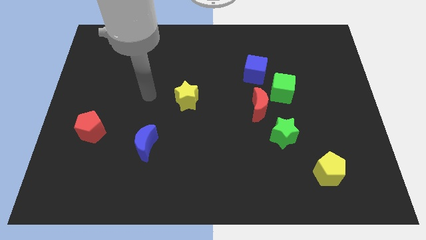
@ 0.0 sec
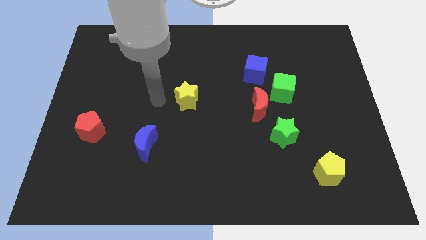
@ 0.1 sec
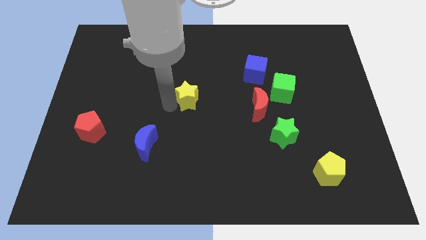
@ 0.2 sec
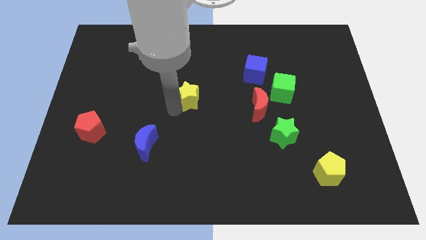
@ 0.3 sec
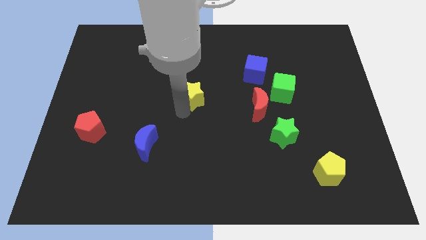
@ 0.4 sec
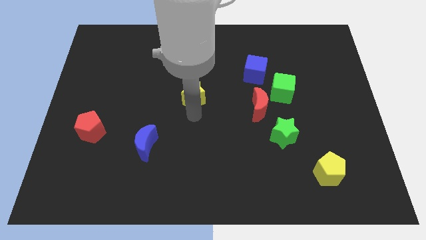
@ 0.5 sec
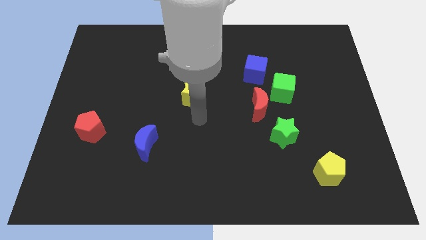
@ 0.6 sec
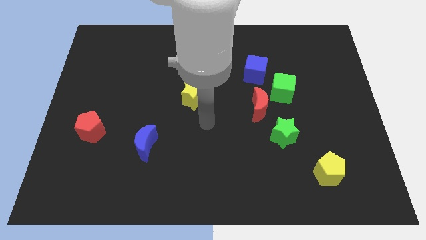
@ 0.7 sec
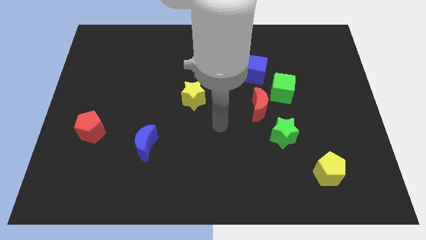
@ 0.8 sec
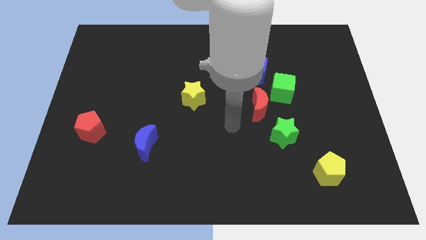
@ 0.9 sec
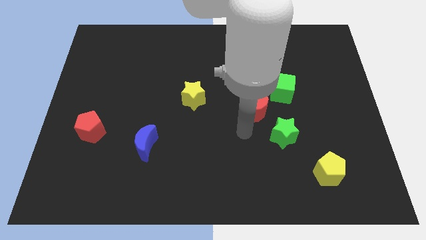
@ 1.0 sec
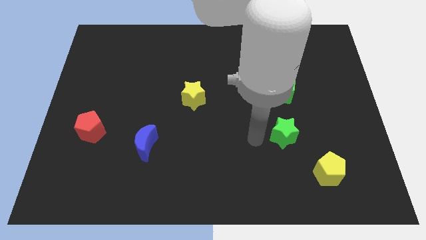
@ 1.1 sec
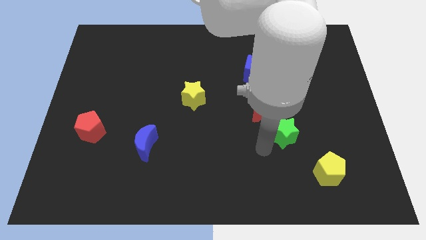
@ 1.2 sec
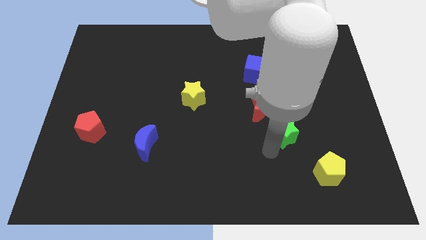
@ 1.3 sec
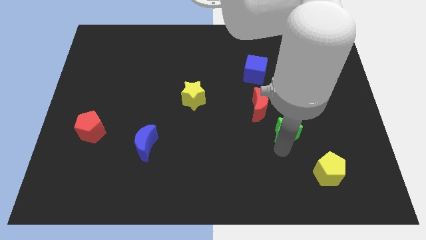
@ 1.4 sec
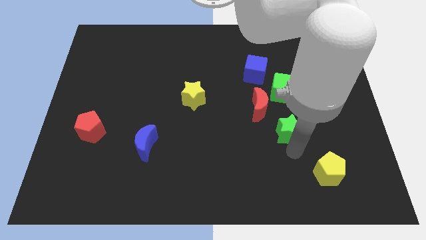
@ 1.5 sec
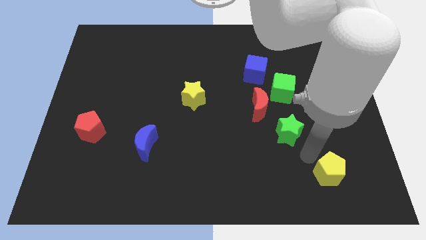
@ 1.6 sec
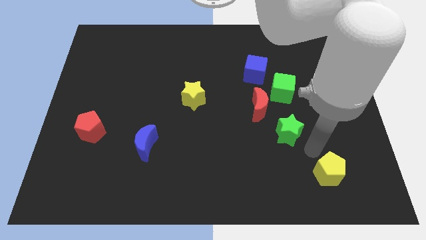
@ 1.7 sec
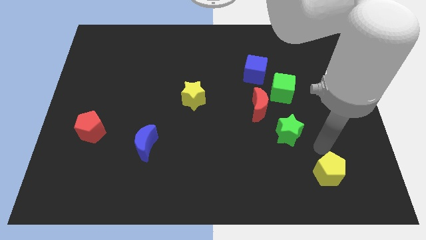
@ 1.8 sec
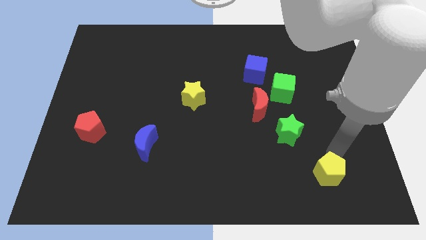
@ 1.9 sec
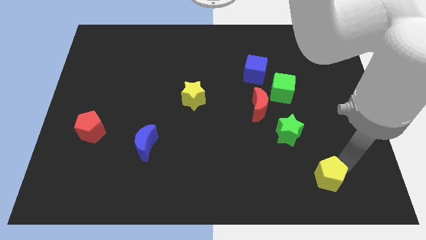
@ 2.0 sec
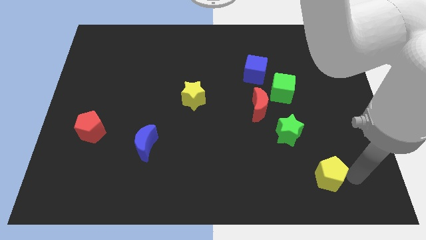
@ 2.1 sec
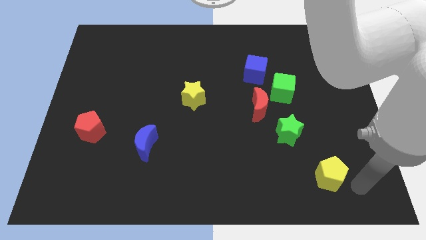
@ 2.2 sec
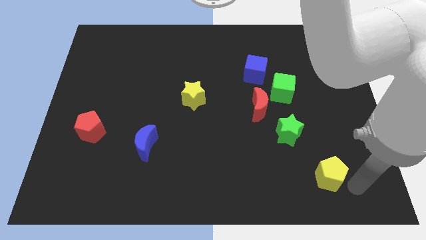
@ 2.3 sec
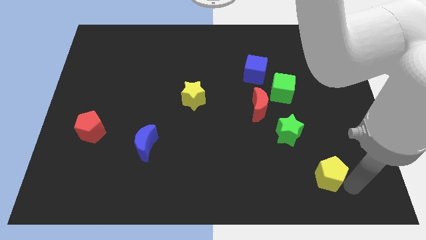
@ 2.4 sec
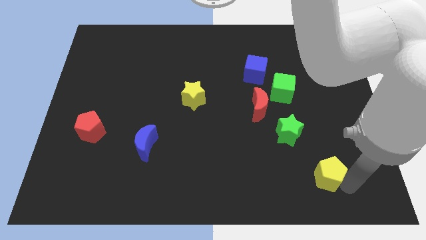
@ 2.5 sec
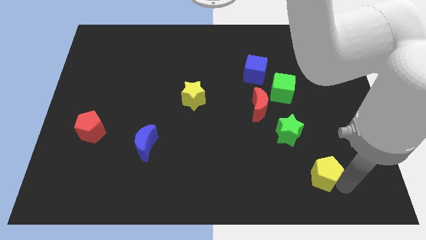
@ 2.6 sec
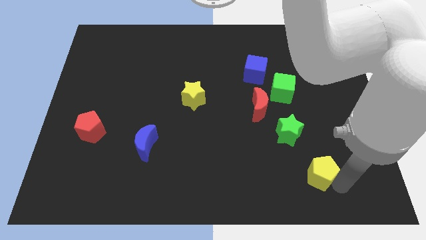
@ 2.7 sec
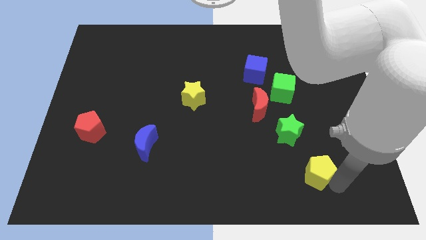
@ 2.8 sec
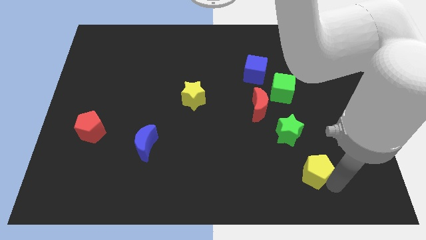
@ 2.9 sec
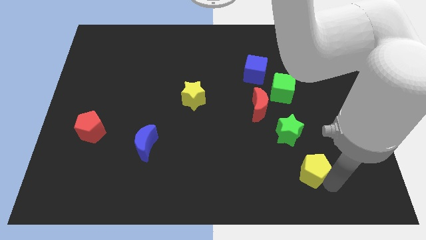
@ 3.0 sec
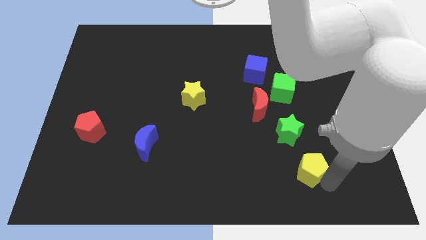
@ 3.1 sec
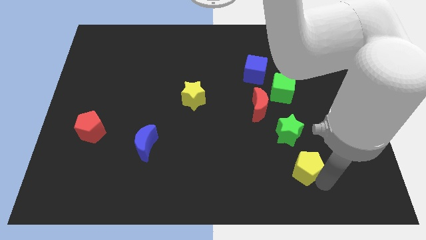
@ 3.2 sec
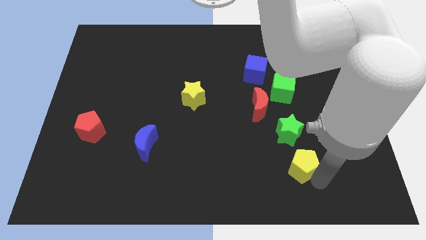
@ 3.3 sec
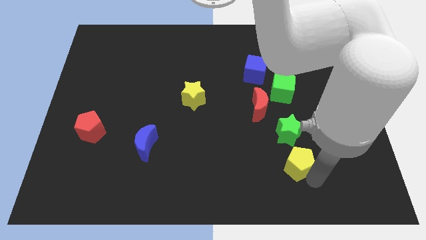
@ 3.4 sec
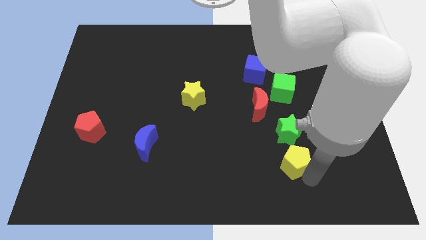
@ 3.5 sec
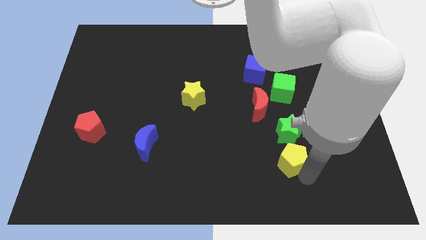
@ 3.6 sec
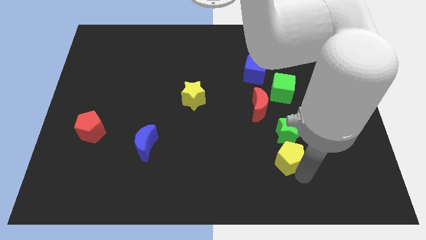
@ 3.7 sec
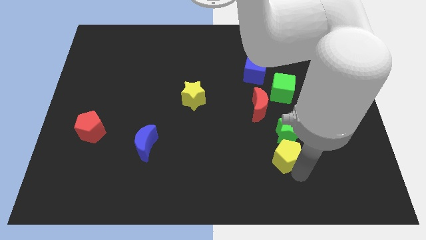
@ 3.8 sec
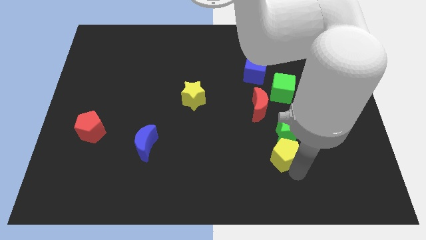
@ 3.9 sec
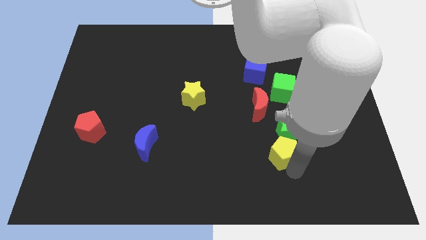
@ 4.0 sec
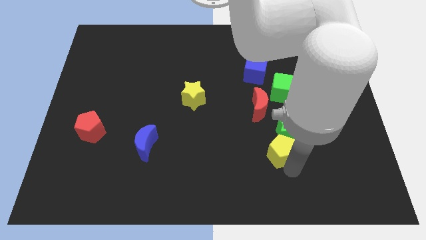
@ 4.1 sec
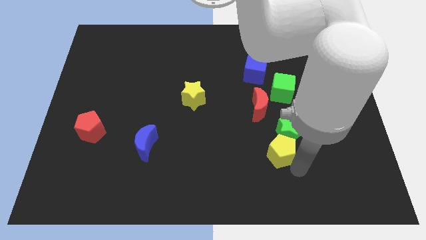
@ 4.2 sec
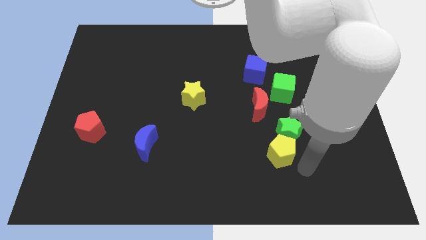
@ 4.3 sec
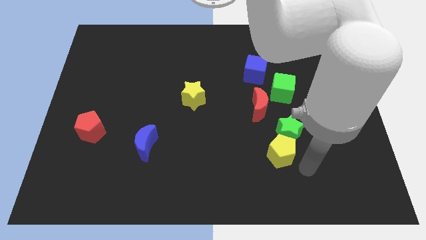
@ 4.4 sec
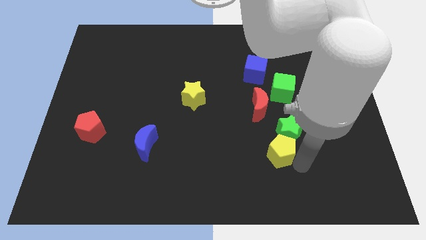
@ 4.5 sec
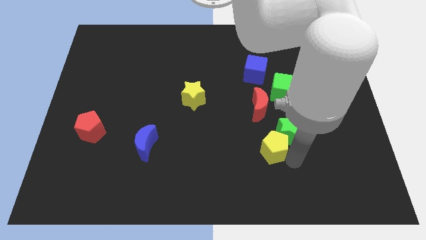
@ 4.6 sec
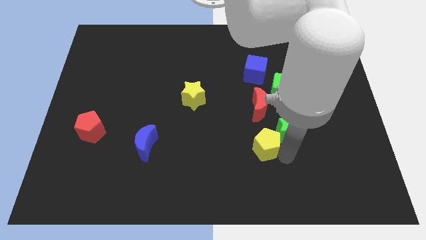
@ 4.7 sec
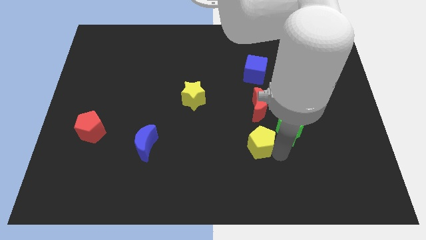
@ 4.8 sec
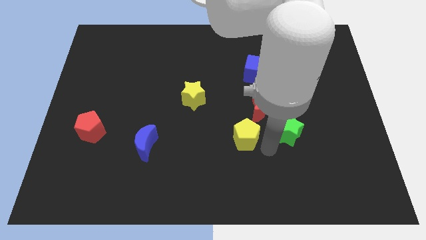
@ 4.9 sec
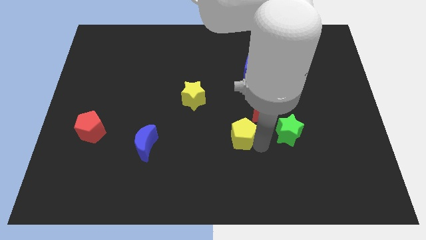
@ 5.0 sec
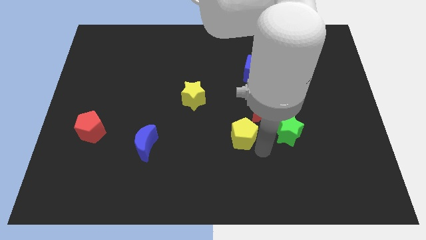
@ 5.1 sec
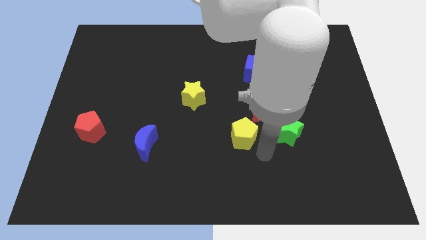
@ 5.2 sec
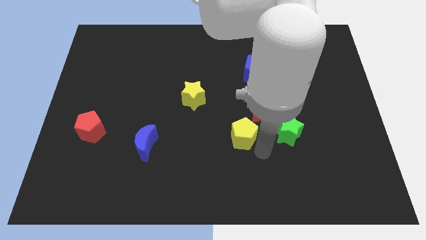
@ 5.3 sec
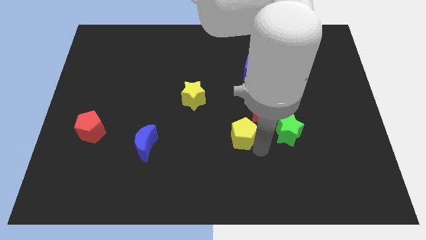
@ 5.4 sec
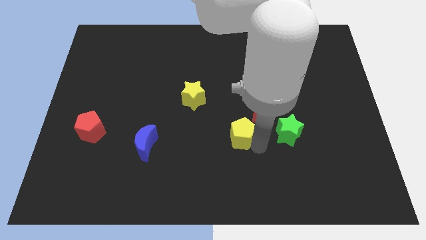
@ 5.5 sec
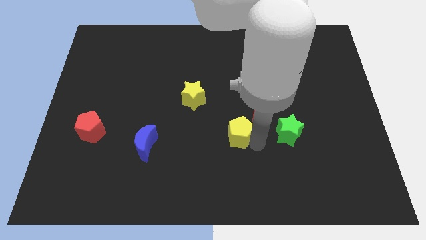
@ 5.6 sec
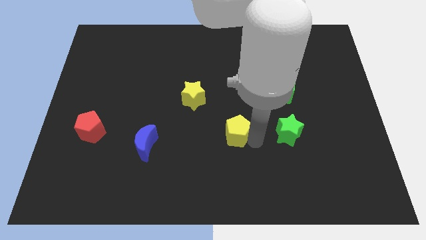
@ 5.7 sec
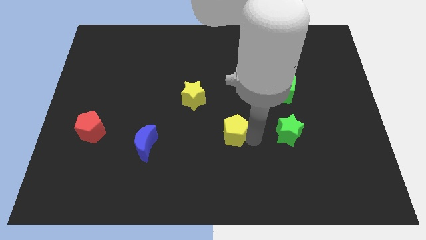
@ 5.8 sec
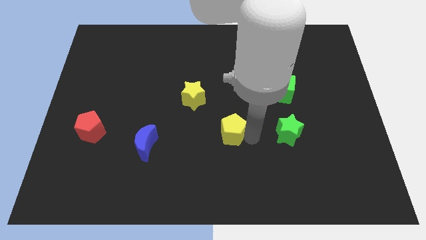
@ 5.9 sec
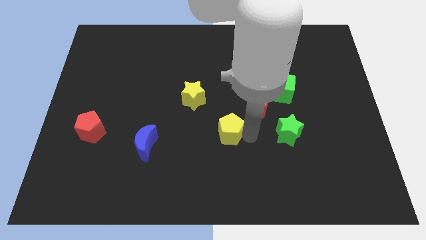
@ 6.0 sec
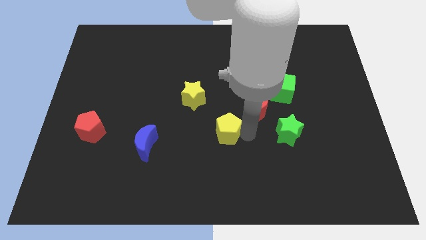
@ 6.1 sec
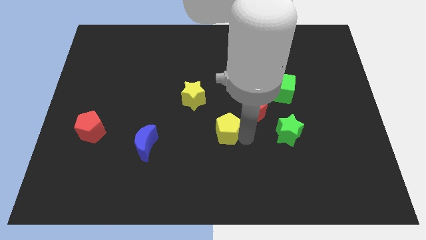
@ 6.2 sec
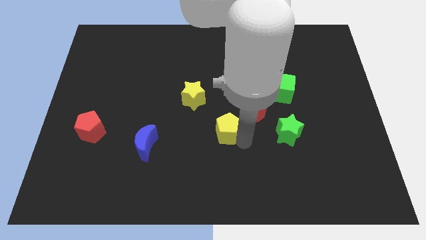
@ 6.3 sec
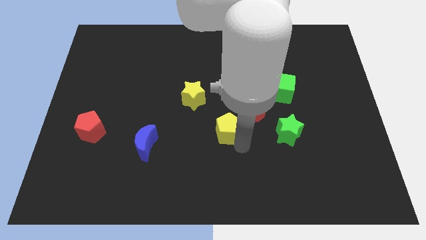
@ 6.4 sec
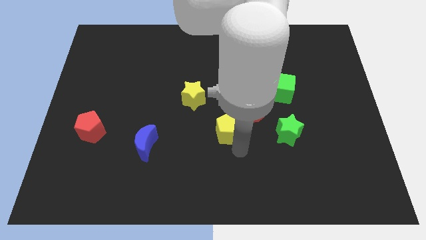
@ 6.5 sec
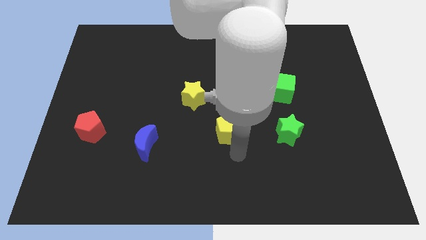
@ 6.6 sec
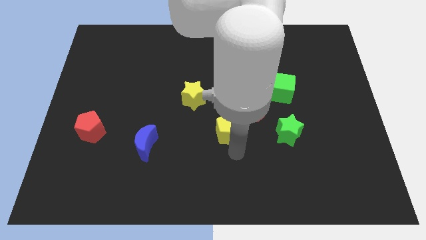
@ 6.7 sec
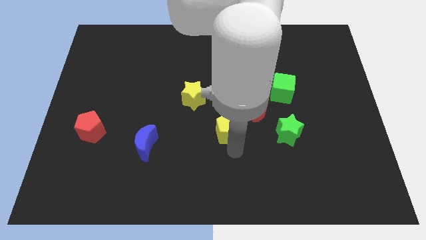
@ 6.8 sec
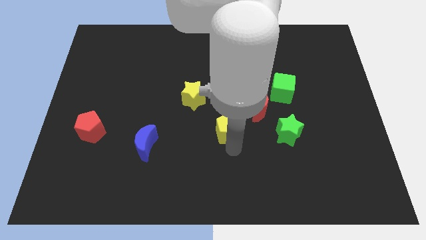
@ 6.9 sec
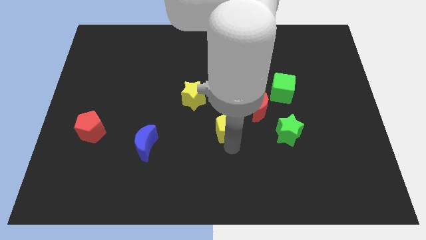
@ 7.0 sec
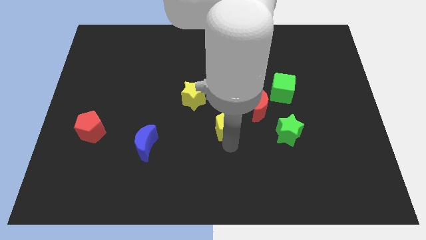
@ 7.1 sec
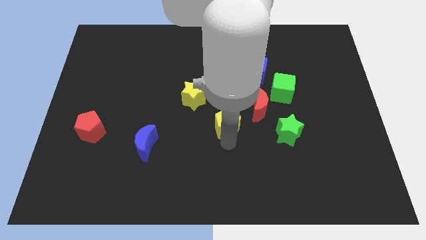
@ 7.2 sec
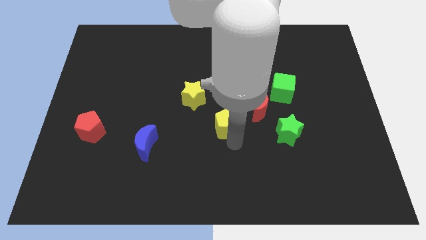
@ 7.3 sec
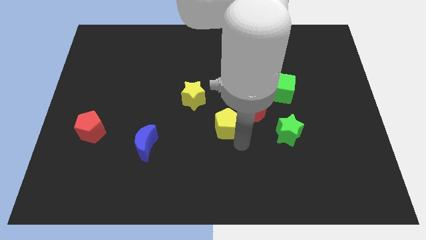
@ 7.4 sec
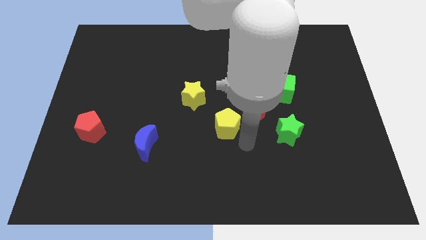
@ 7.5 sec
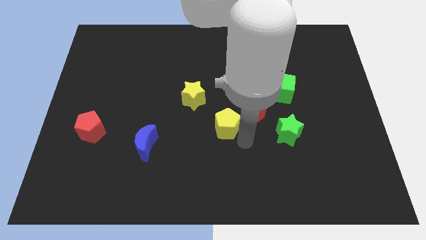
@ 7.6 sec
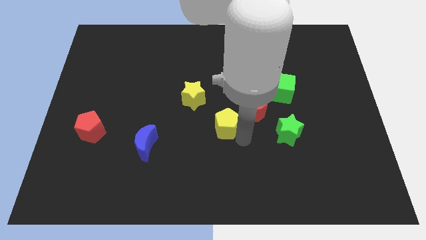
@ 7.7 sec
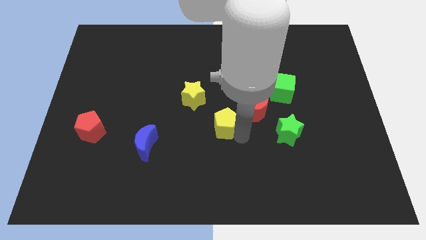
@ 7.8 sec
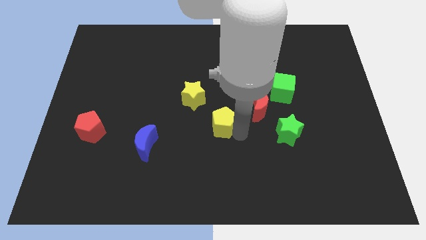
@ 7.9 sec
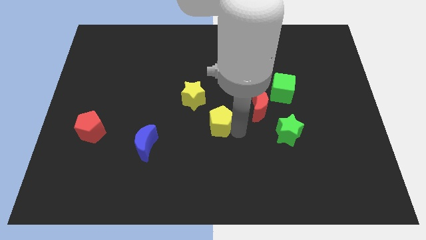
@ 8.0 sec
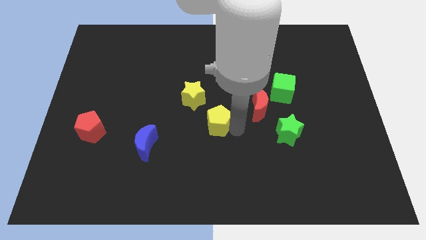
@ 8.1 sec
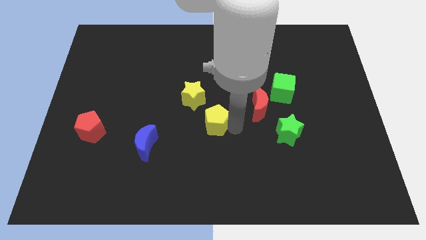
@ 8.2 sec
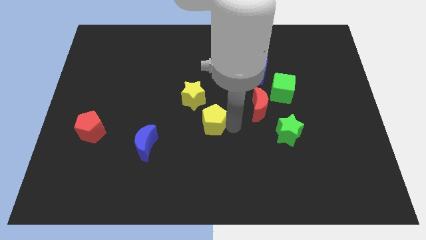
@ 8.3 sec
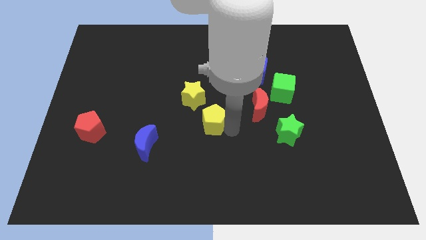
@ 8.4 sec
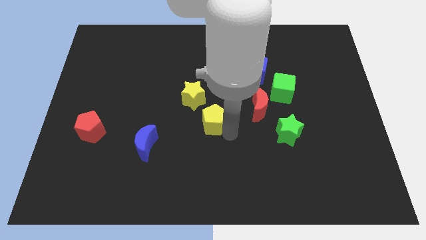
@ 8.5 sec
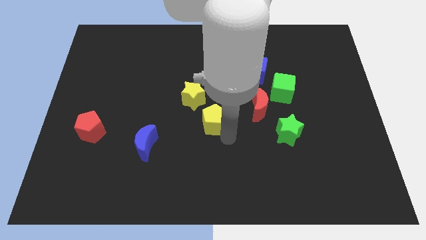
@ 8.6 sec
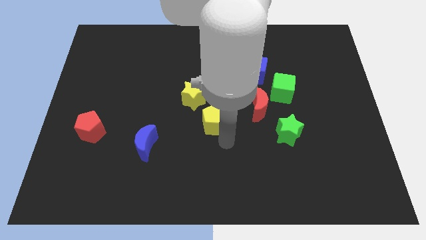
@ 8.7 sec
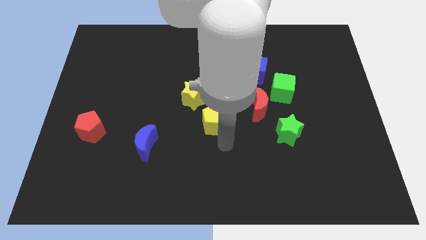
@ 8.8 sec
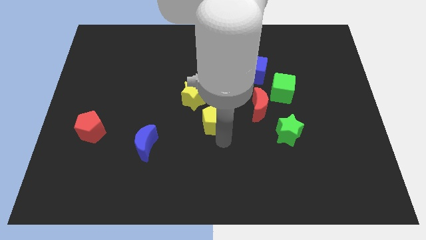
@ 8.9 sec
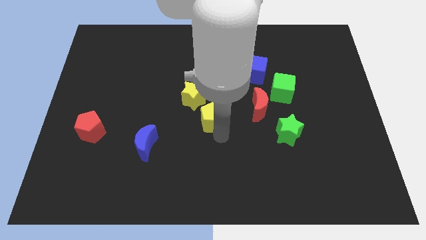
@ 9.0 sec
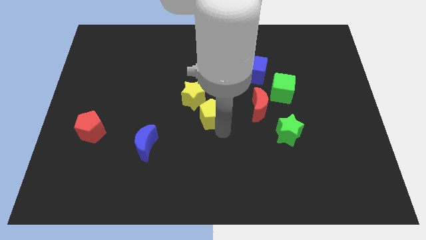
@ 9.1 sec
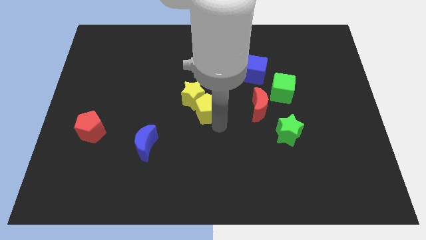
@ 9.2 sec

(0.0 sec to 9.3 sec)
push the yellow pentagon next to the yellow star
